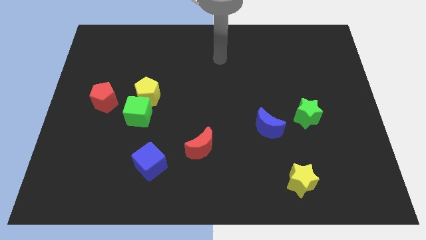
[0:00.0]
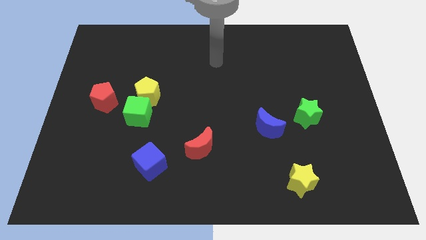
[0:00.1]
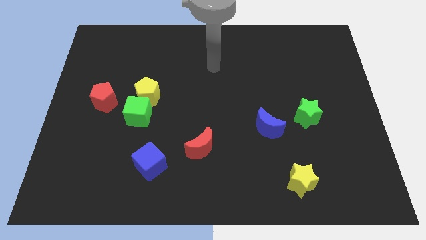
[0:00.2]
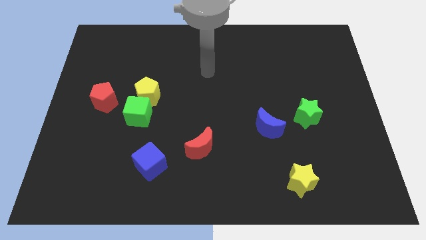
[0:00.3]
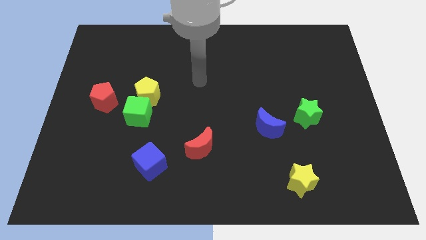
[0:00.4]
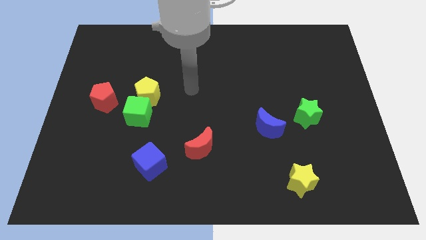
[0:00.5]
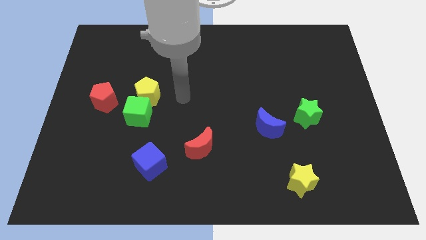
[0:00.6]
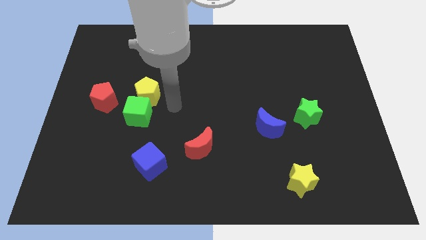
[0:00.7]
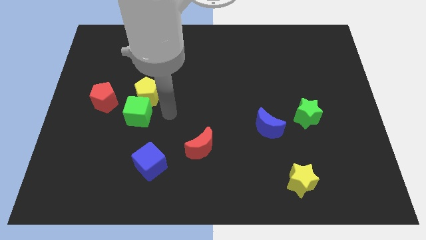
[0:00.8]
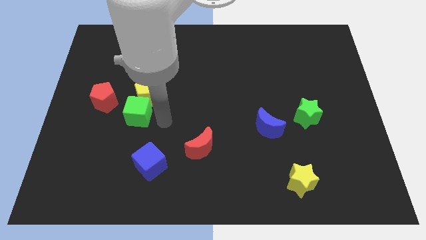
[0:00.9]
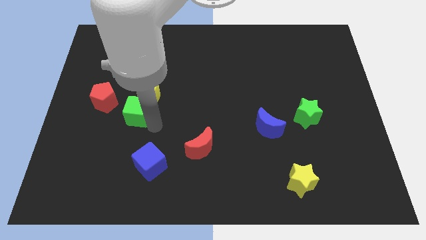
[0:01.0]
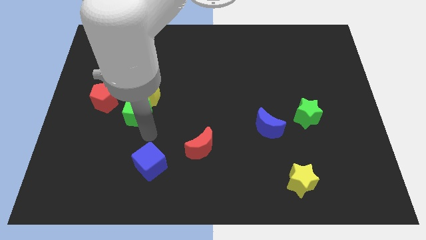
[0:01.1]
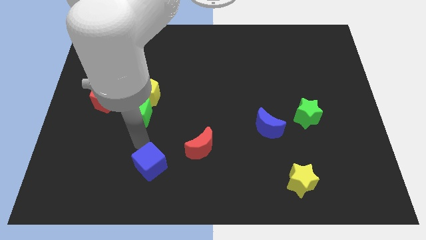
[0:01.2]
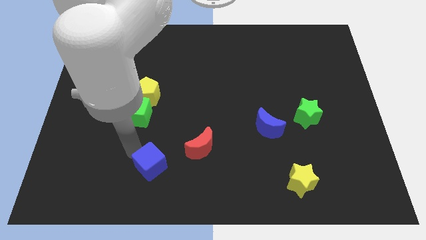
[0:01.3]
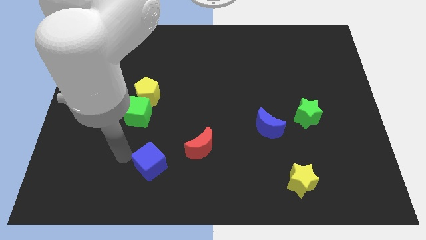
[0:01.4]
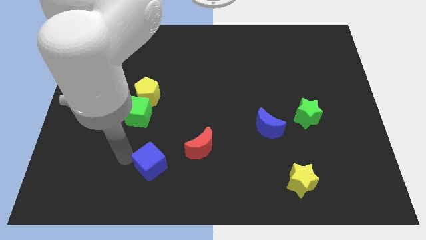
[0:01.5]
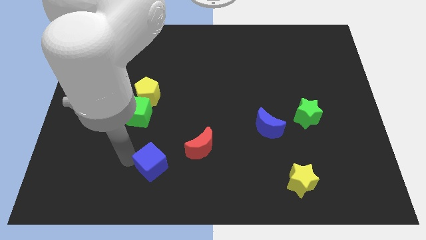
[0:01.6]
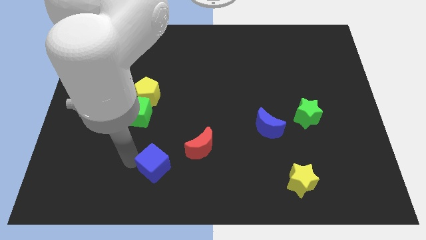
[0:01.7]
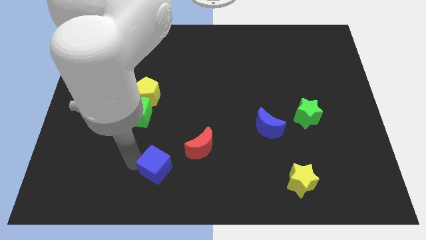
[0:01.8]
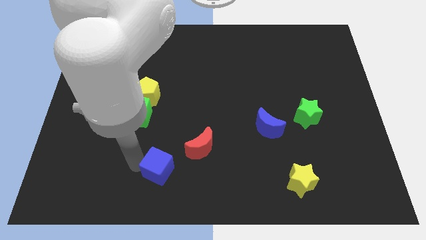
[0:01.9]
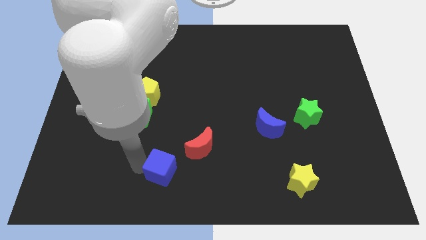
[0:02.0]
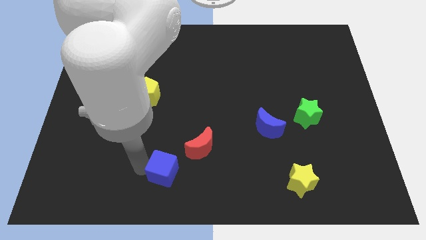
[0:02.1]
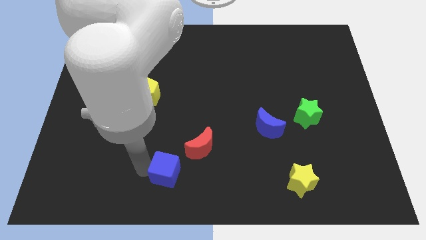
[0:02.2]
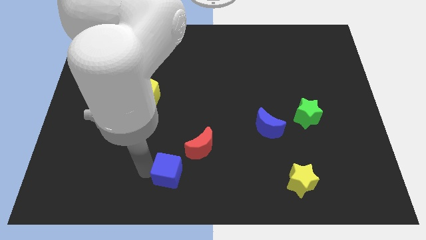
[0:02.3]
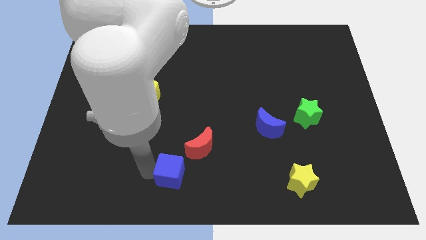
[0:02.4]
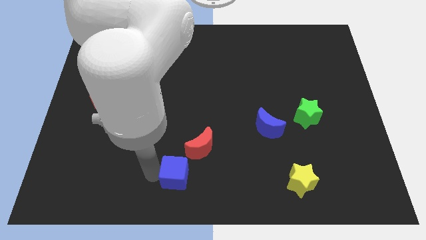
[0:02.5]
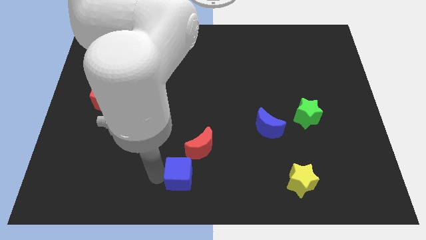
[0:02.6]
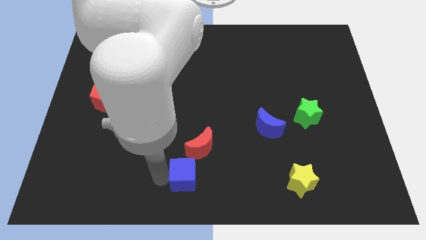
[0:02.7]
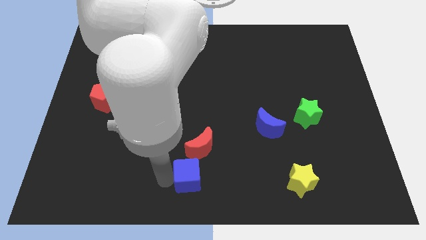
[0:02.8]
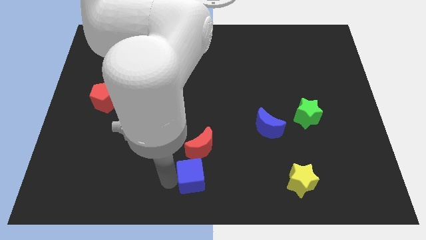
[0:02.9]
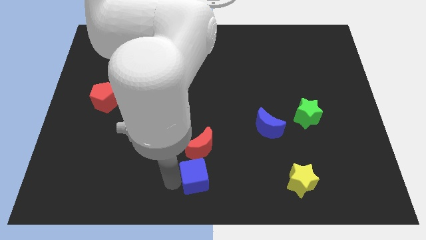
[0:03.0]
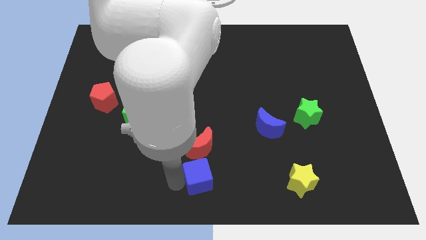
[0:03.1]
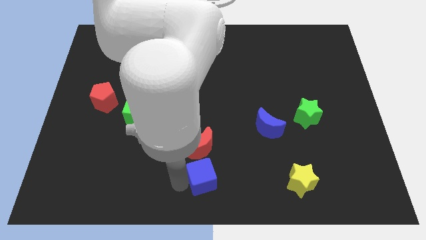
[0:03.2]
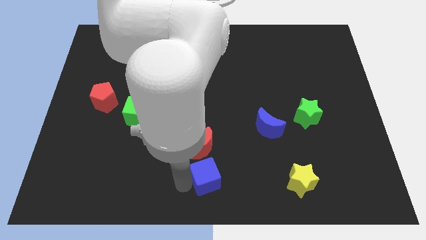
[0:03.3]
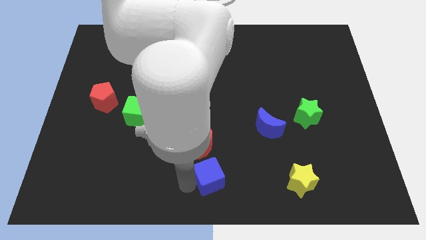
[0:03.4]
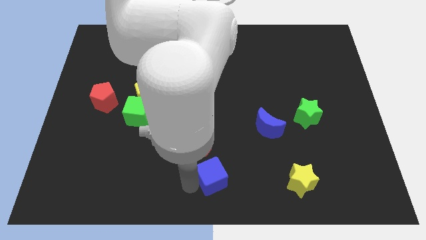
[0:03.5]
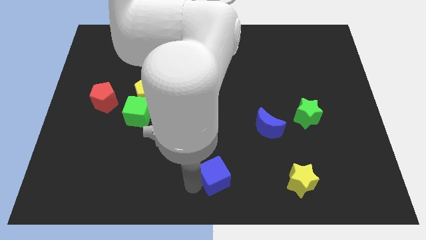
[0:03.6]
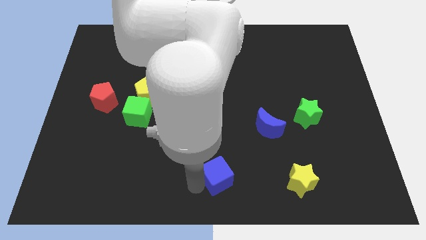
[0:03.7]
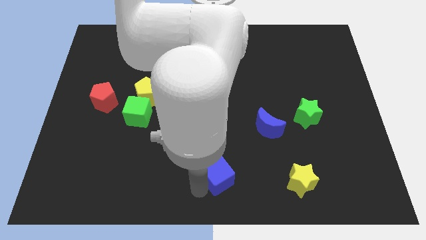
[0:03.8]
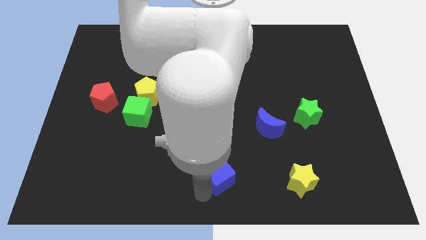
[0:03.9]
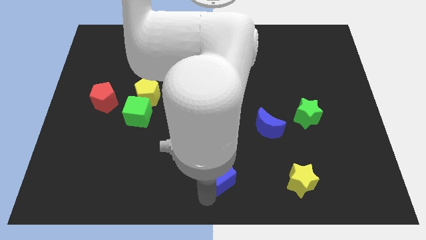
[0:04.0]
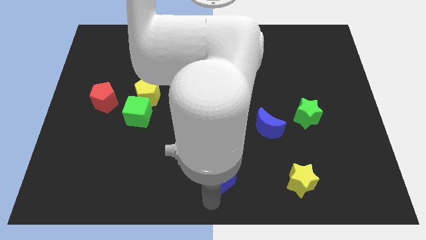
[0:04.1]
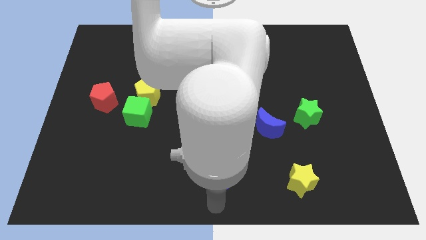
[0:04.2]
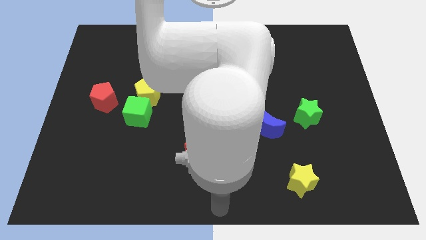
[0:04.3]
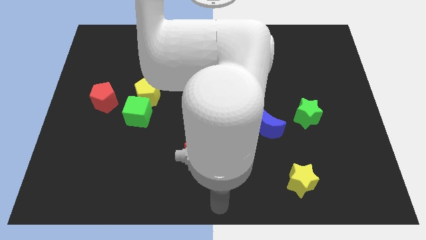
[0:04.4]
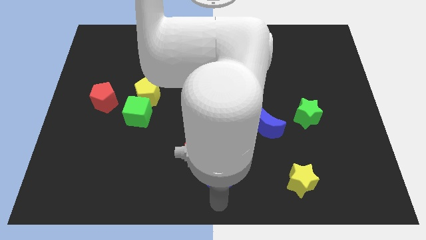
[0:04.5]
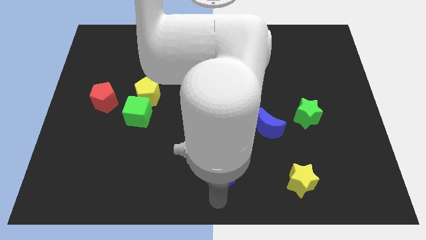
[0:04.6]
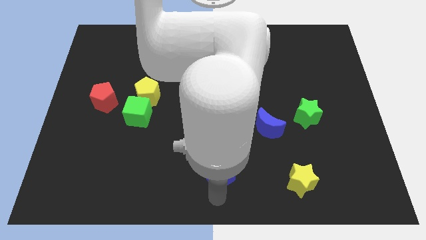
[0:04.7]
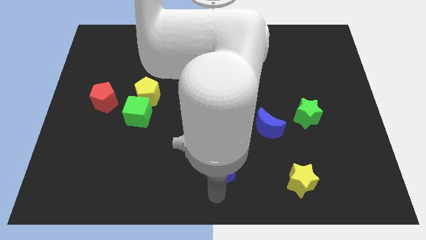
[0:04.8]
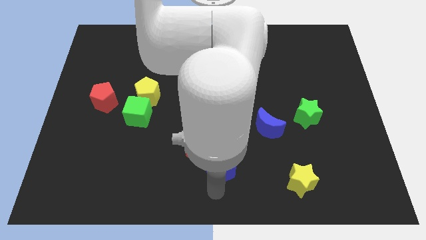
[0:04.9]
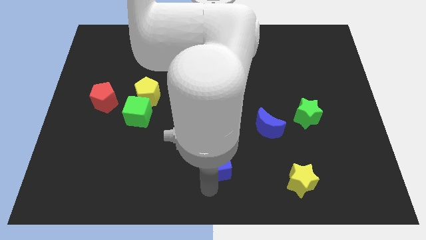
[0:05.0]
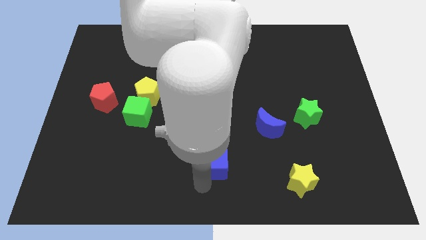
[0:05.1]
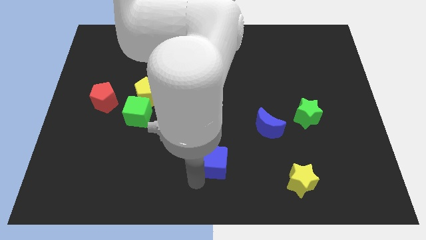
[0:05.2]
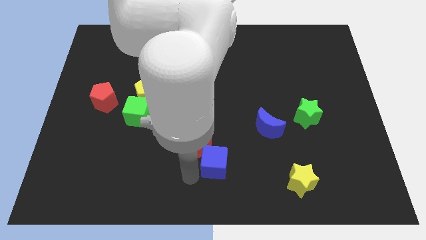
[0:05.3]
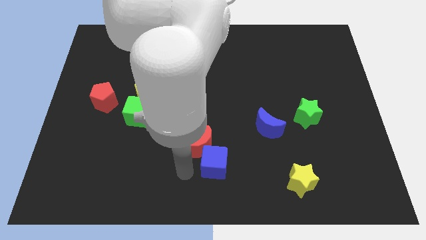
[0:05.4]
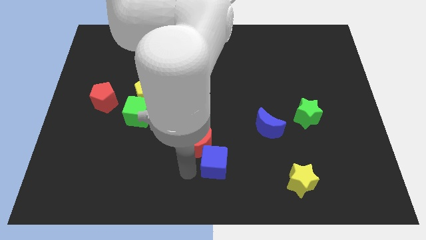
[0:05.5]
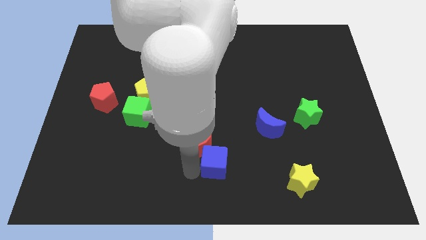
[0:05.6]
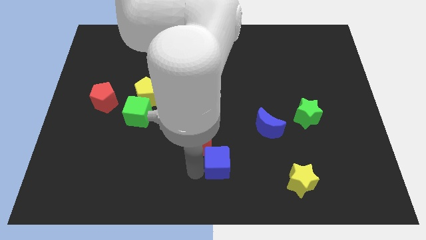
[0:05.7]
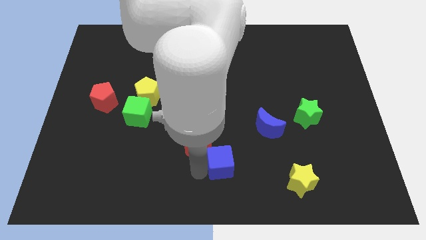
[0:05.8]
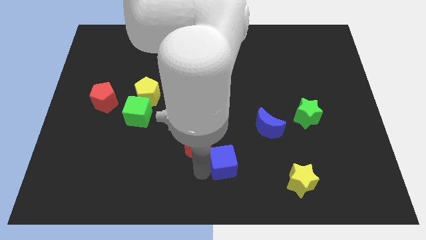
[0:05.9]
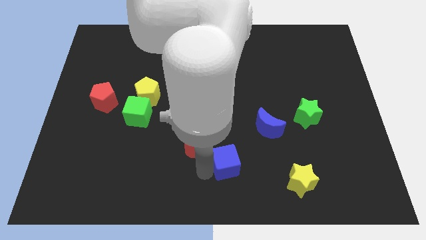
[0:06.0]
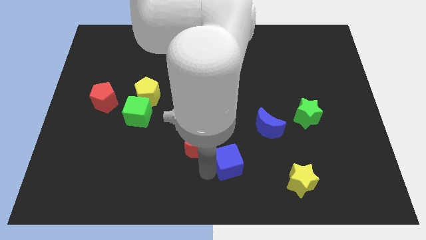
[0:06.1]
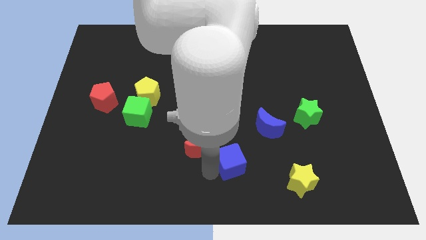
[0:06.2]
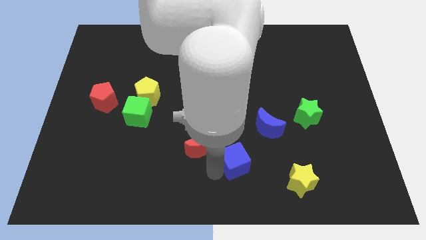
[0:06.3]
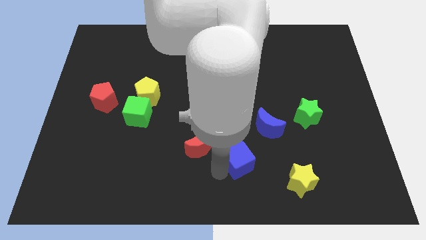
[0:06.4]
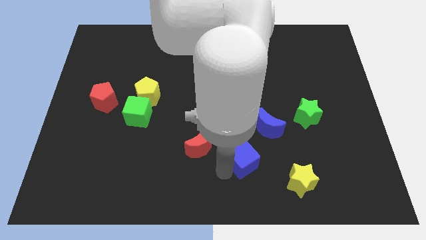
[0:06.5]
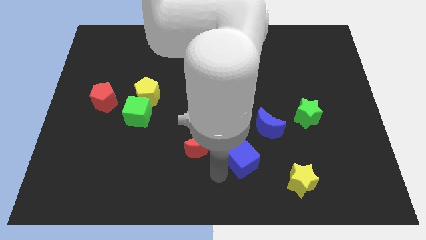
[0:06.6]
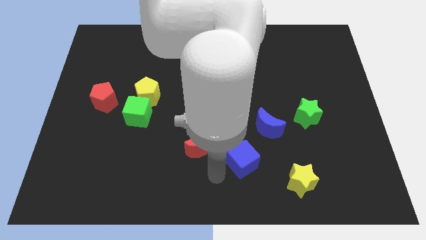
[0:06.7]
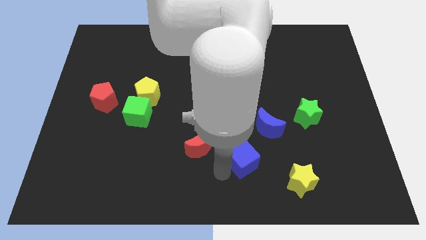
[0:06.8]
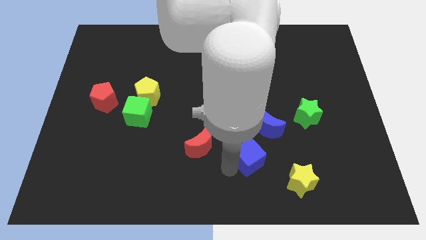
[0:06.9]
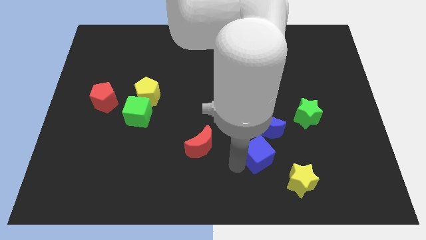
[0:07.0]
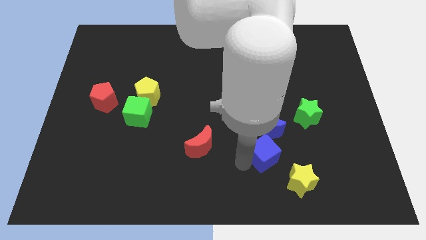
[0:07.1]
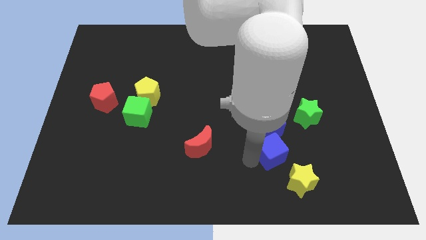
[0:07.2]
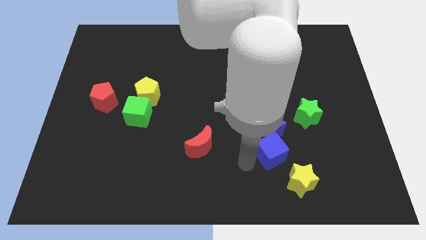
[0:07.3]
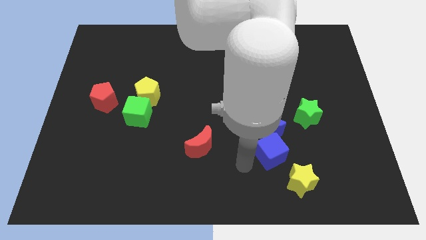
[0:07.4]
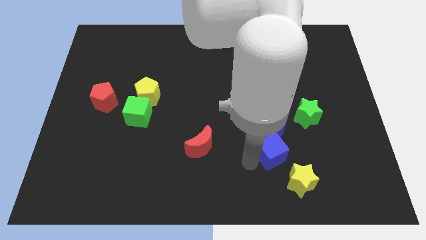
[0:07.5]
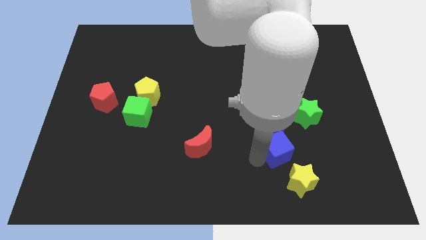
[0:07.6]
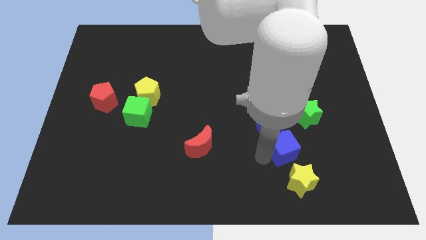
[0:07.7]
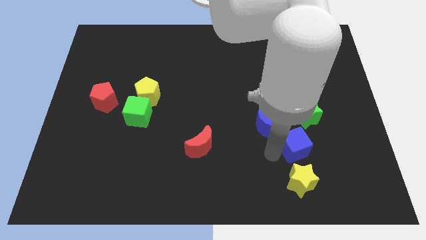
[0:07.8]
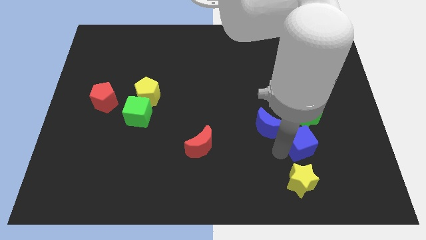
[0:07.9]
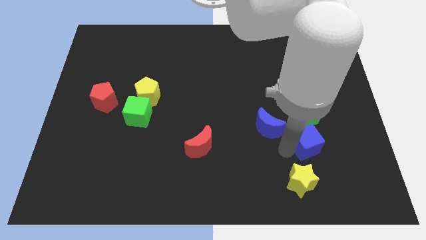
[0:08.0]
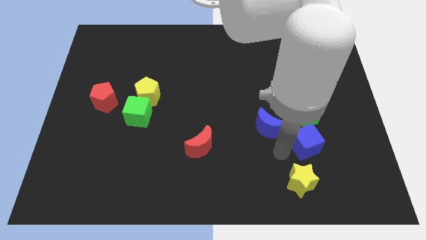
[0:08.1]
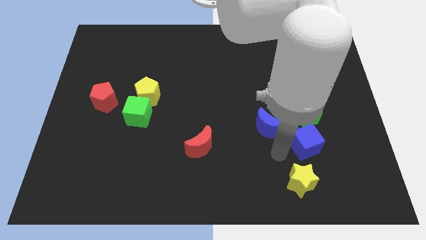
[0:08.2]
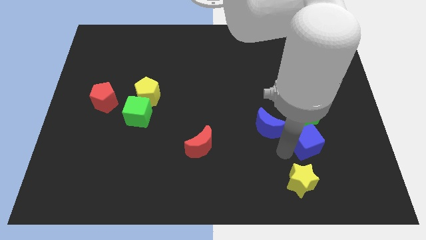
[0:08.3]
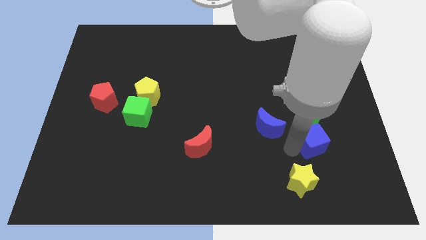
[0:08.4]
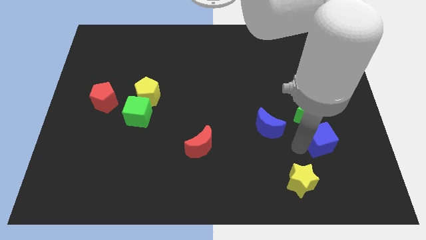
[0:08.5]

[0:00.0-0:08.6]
push the blue cube to the bottom right of the green star
